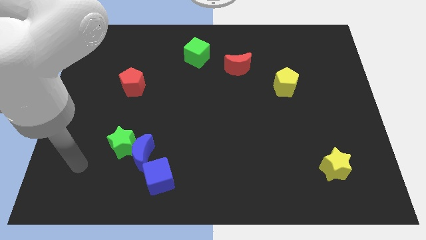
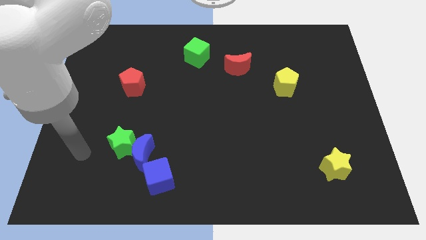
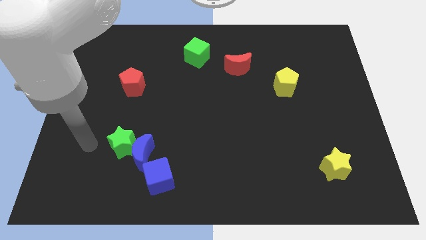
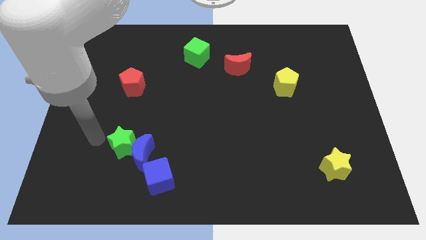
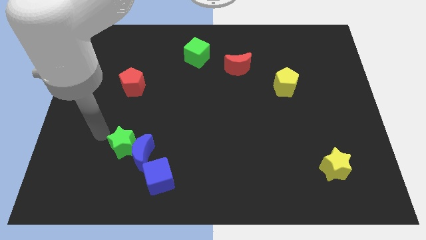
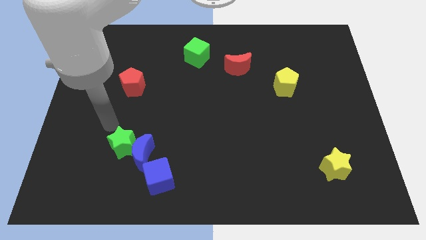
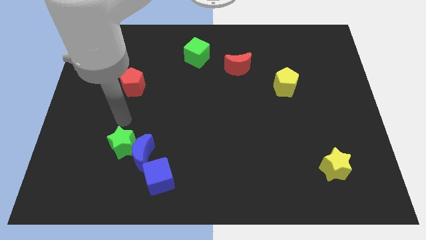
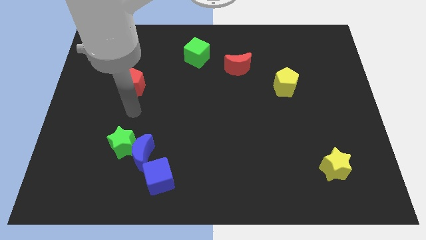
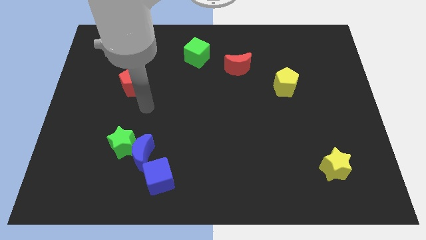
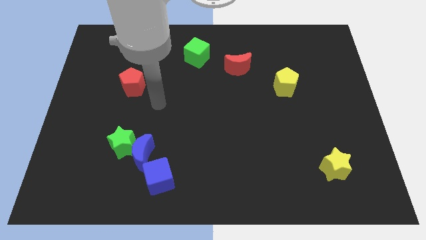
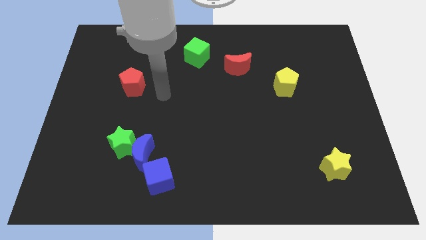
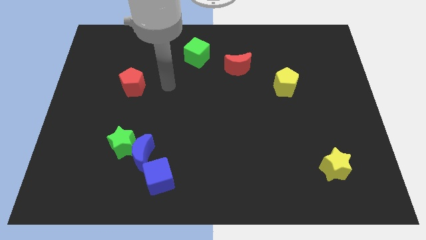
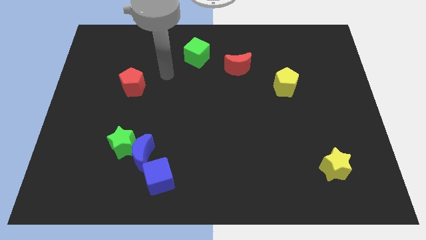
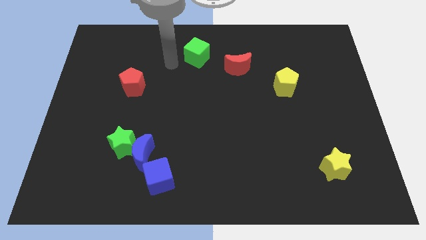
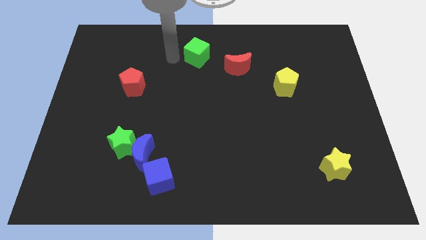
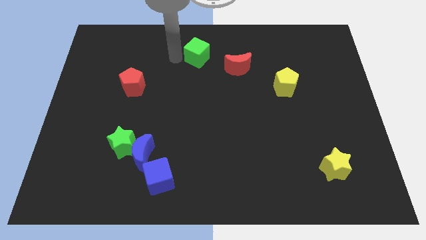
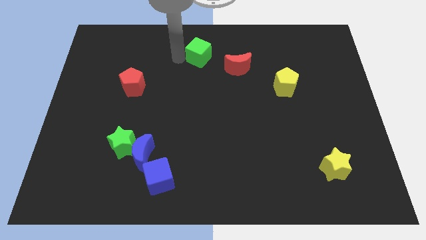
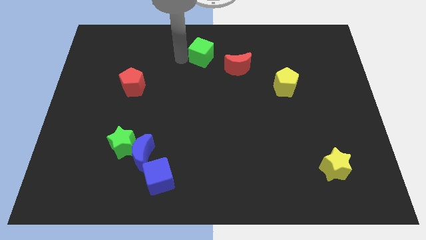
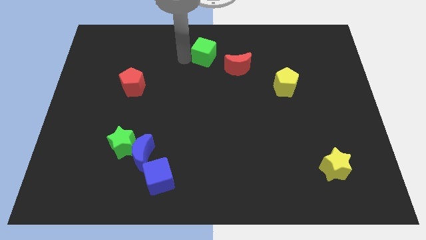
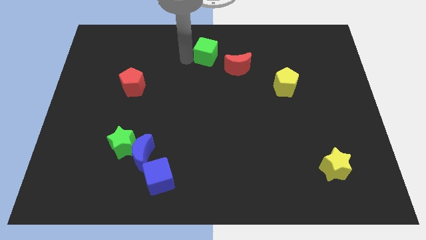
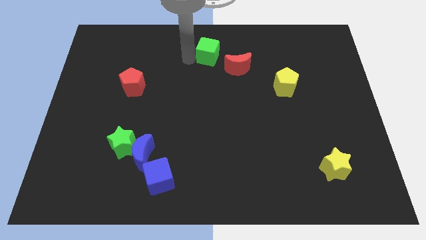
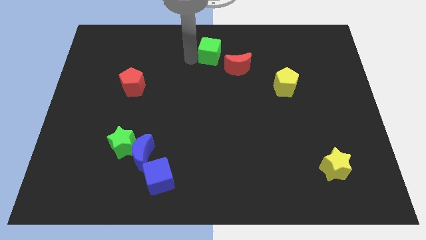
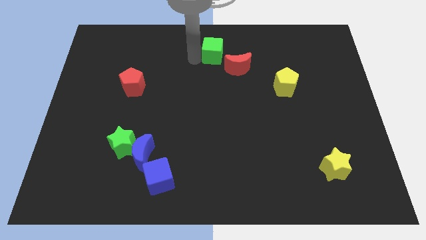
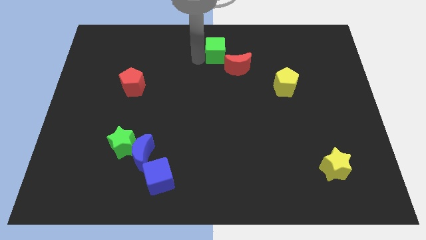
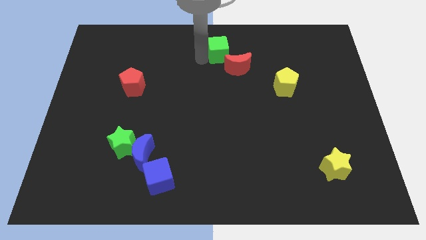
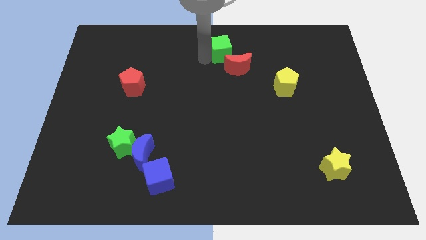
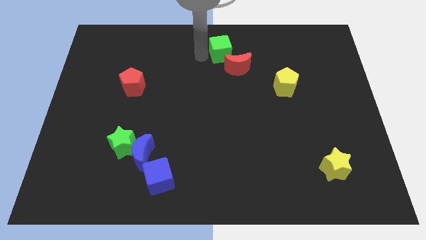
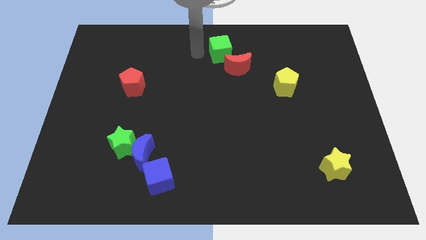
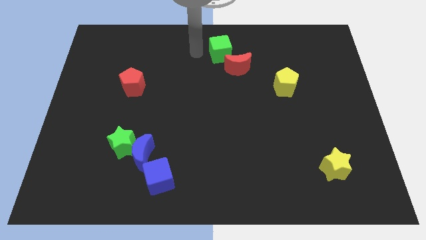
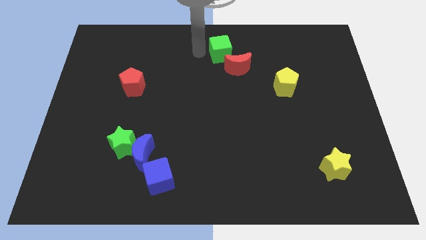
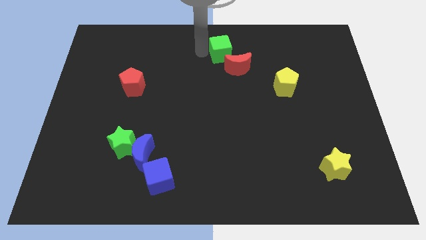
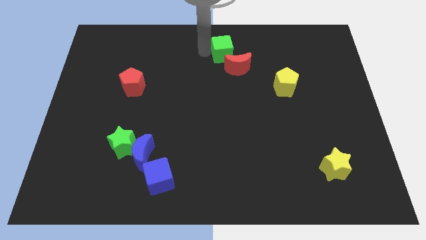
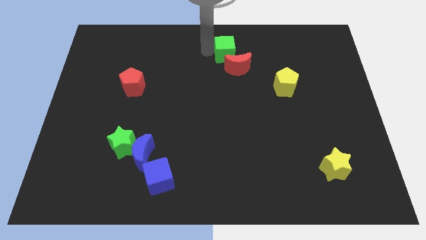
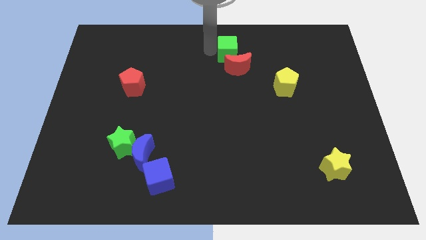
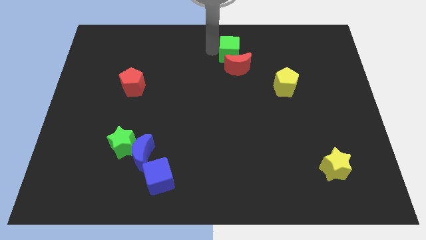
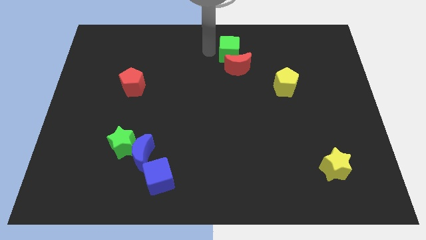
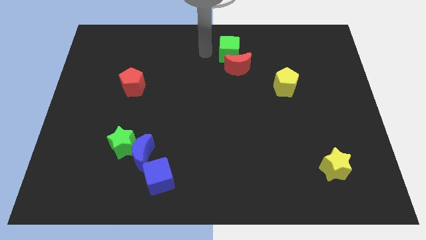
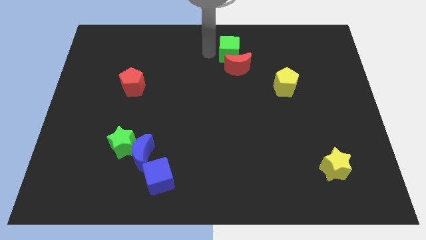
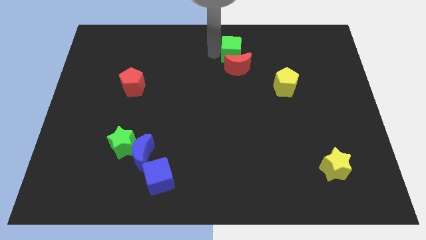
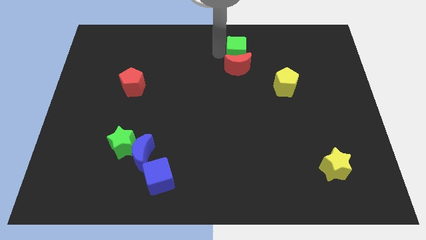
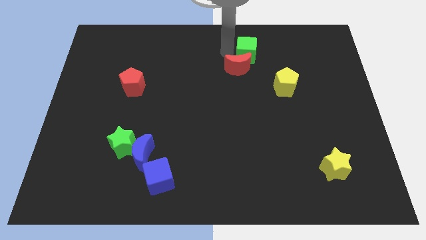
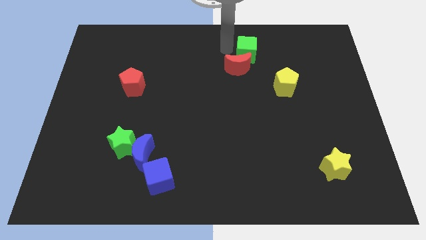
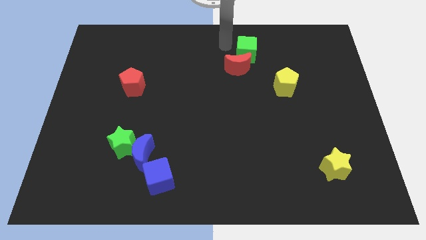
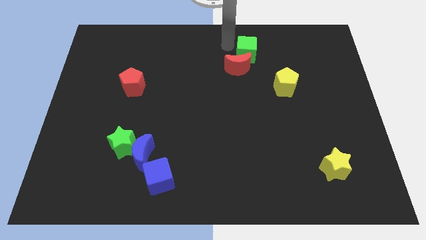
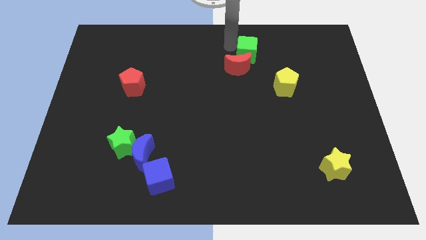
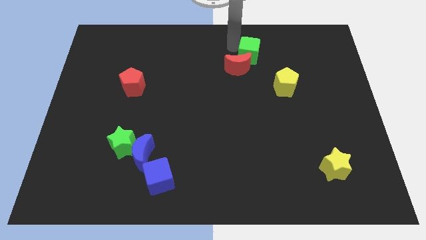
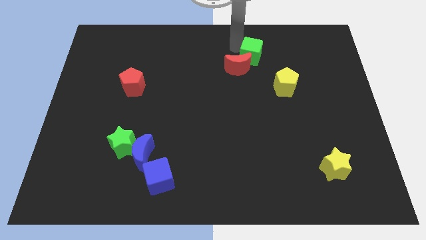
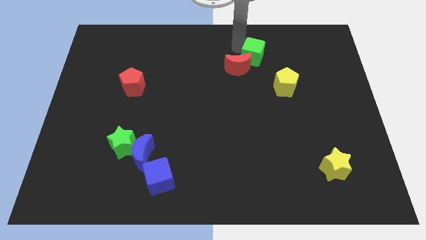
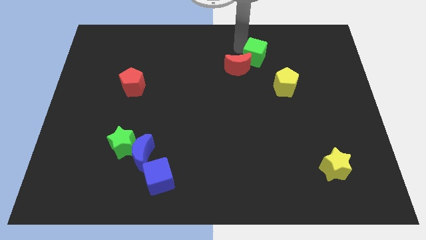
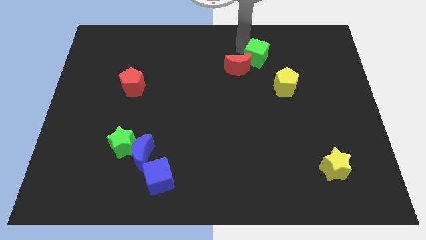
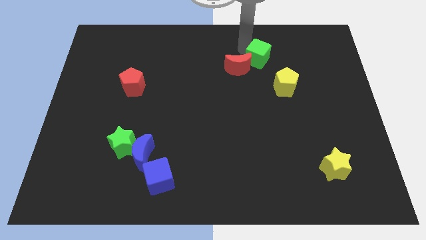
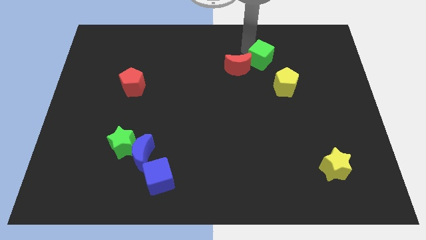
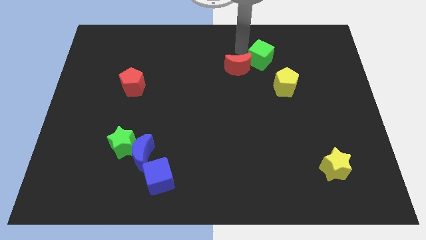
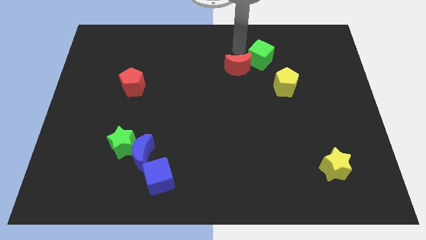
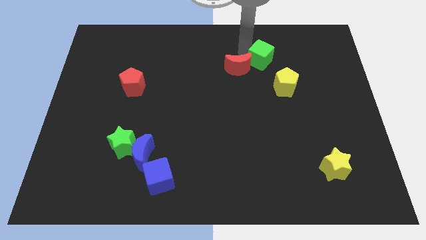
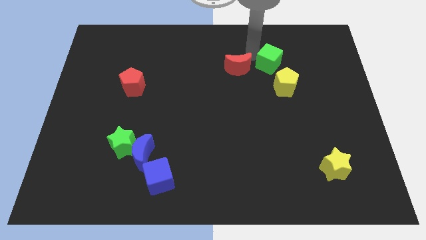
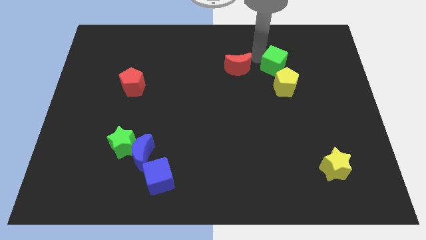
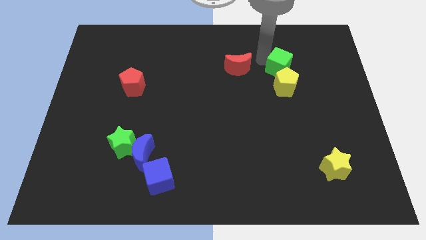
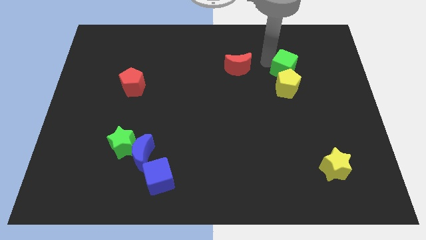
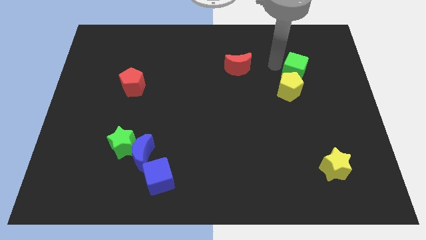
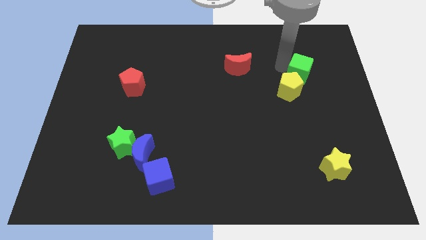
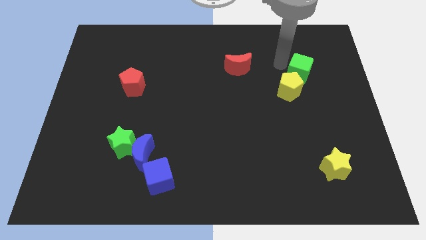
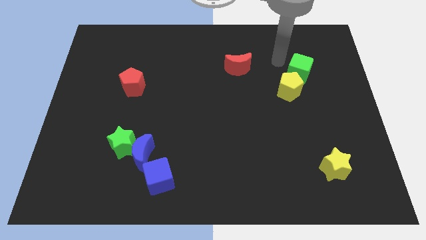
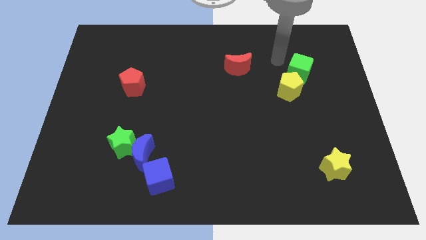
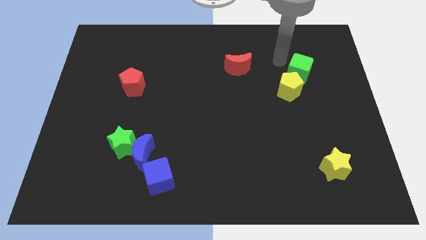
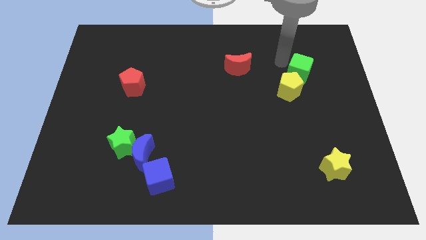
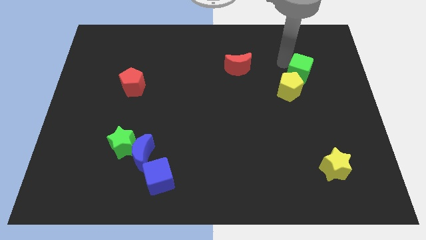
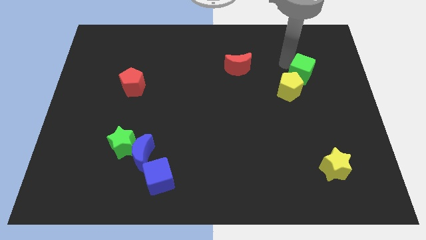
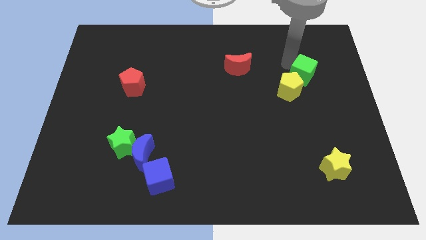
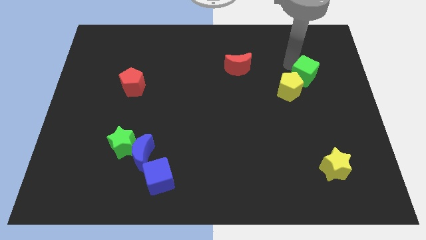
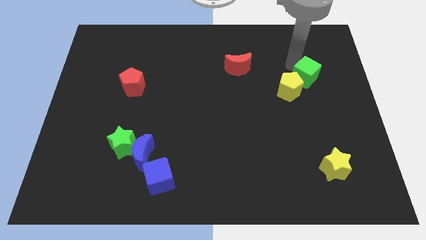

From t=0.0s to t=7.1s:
slide the green cube just right of the yellow pentagon

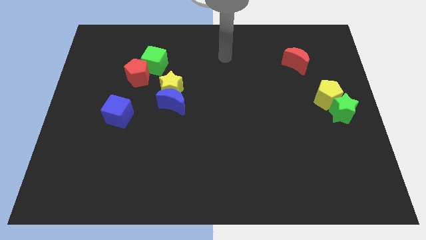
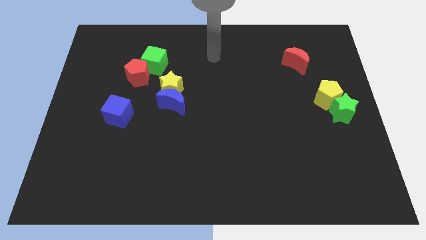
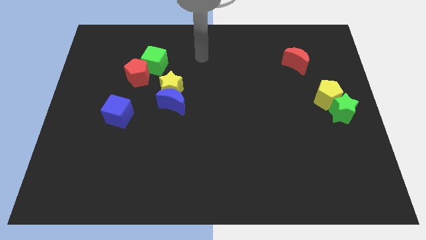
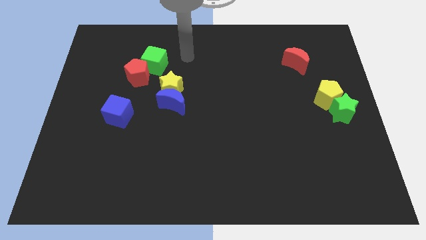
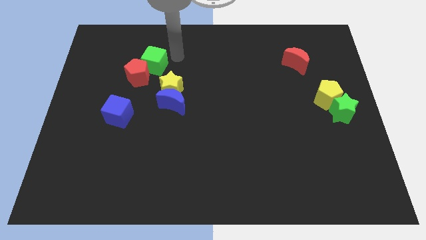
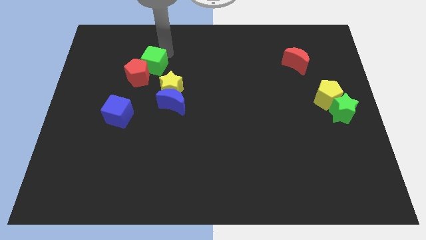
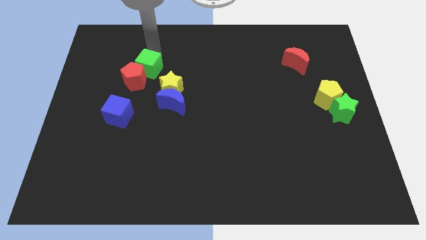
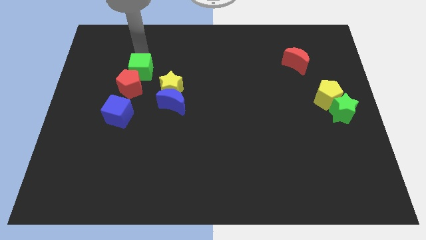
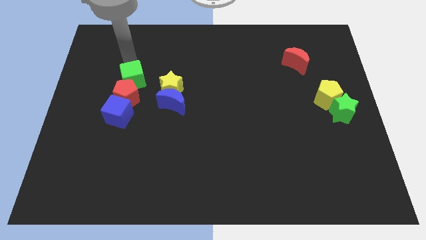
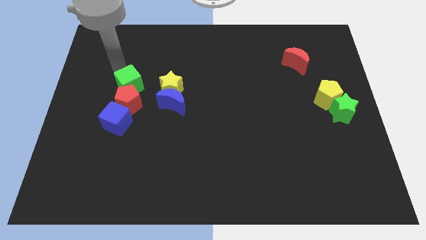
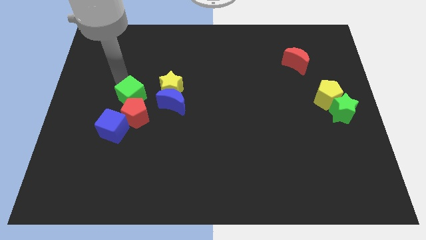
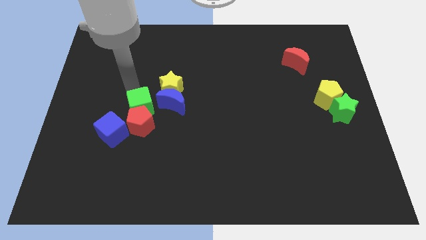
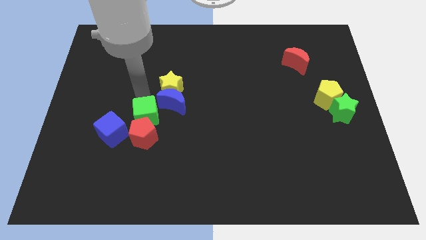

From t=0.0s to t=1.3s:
put the red pentagon to the bottom right of the blue cube
